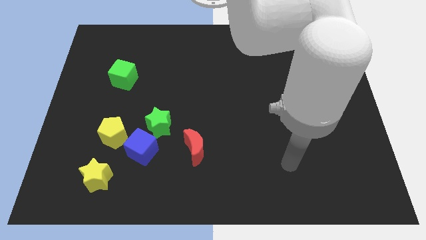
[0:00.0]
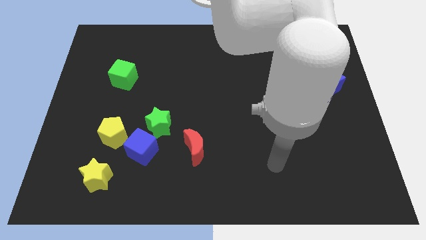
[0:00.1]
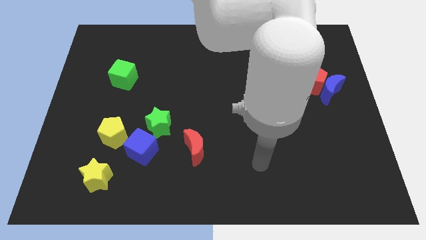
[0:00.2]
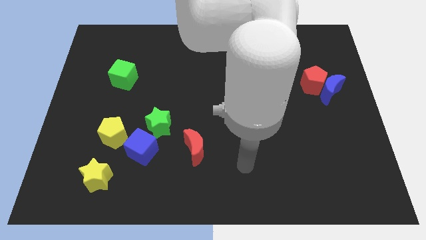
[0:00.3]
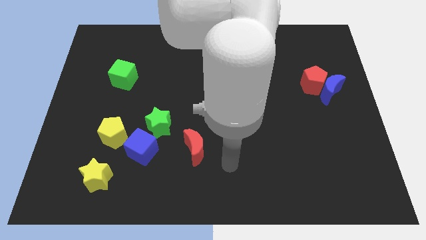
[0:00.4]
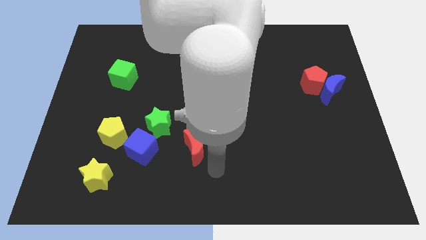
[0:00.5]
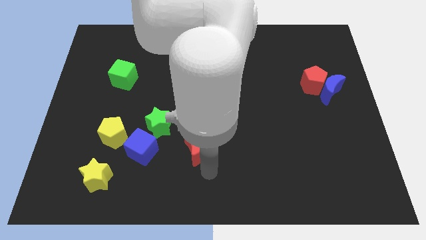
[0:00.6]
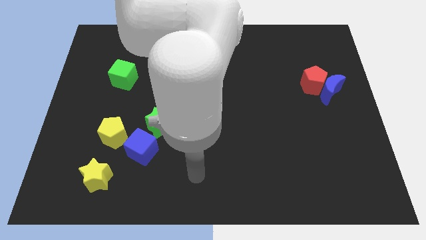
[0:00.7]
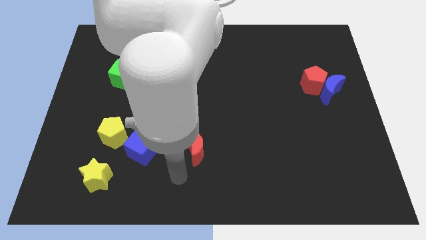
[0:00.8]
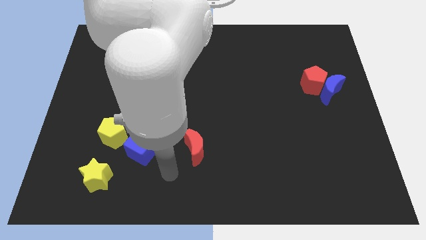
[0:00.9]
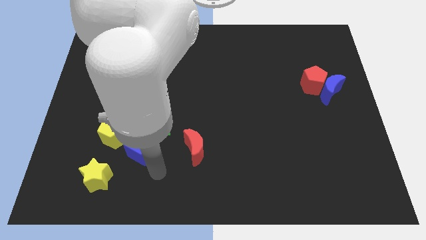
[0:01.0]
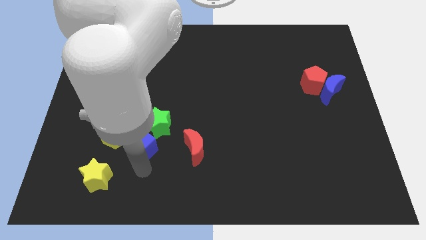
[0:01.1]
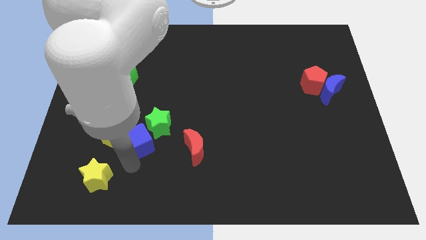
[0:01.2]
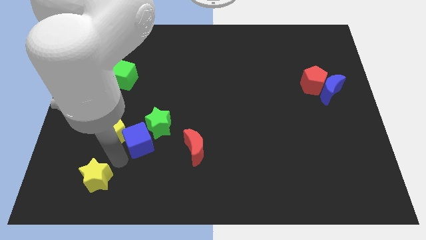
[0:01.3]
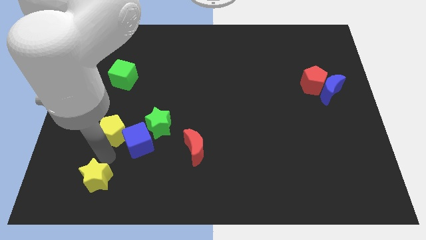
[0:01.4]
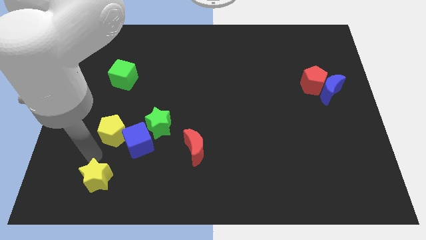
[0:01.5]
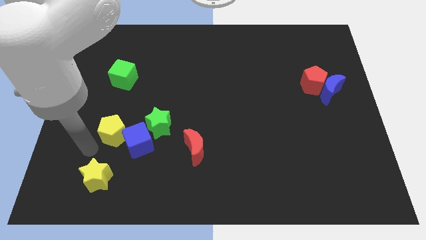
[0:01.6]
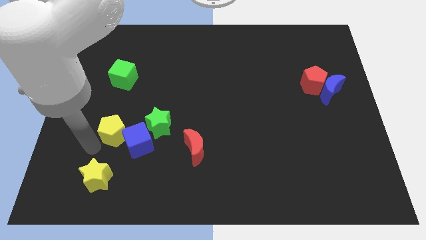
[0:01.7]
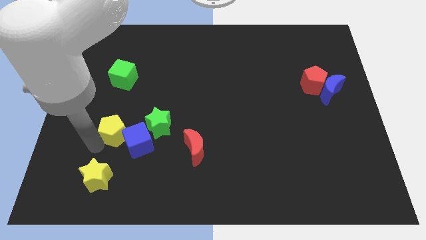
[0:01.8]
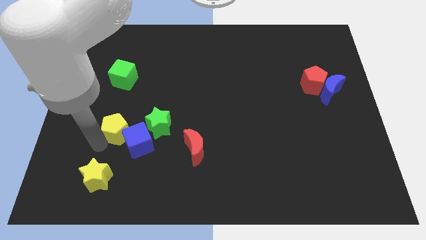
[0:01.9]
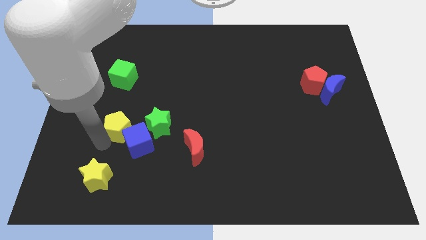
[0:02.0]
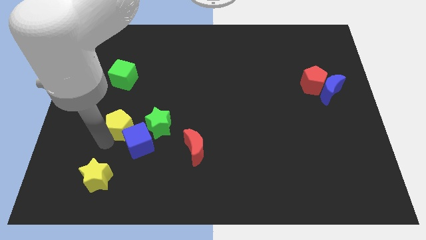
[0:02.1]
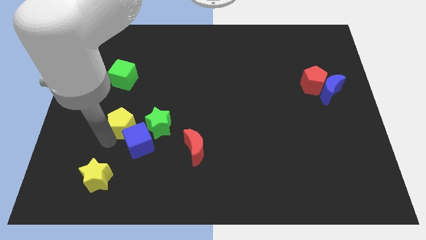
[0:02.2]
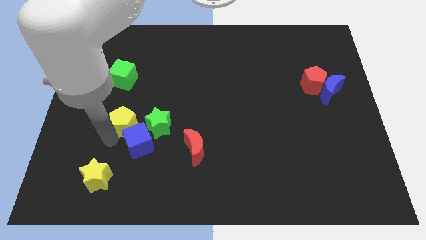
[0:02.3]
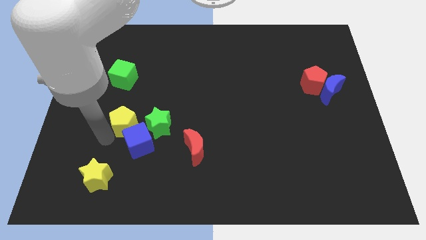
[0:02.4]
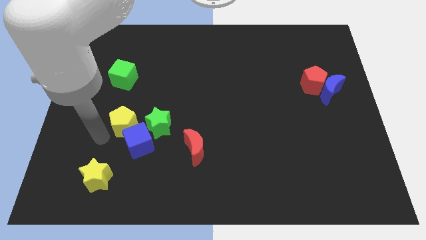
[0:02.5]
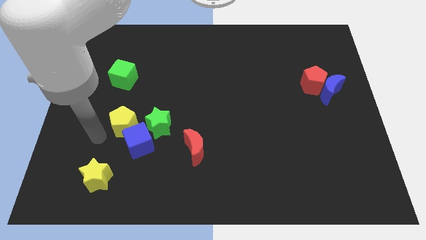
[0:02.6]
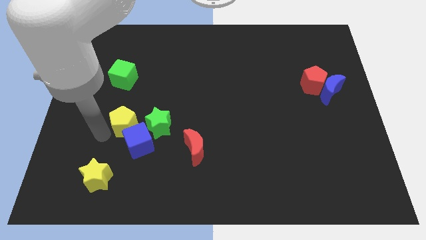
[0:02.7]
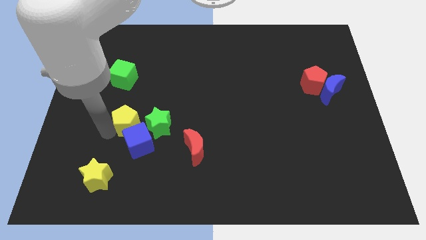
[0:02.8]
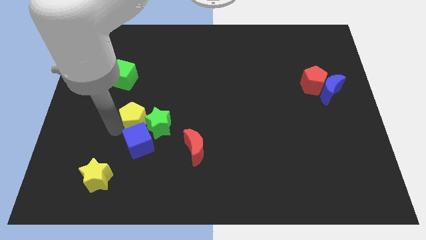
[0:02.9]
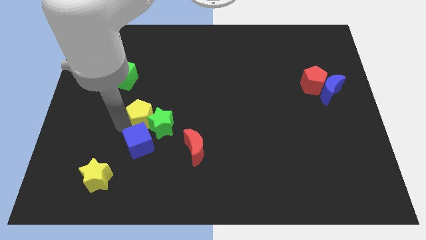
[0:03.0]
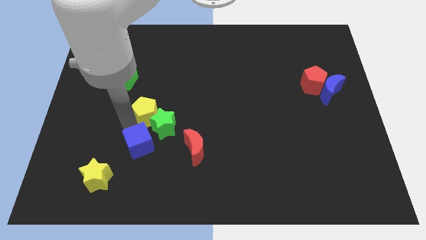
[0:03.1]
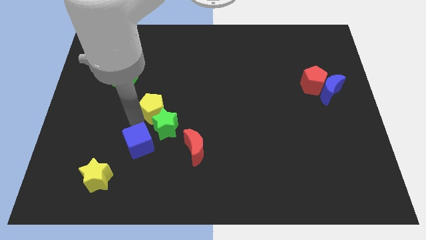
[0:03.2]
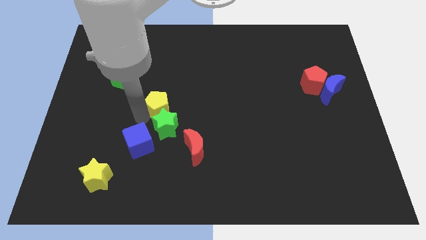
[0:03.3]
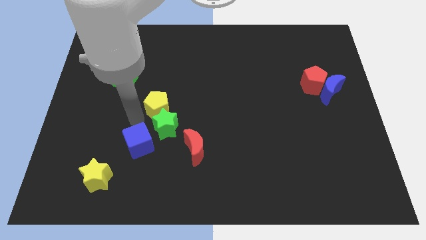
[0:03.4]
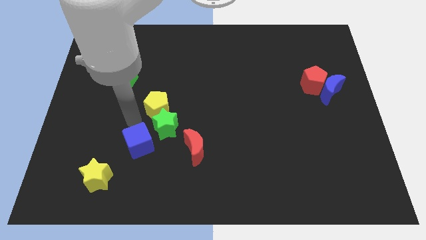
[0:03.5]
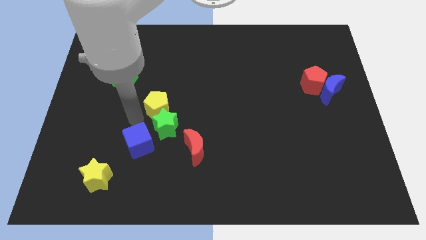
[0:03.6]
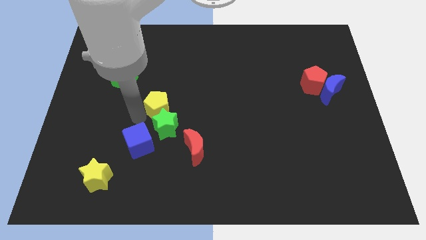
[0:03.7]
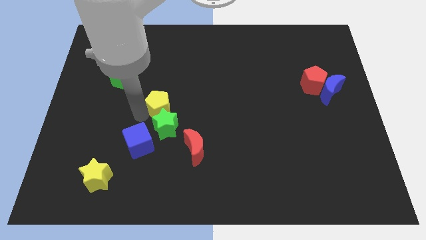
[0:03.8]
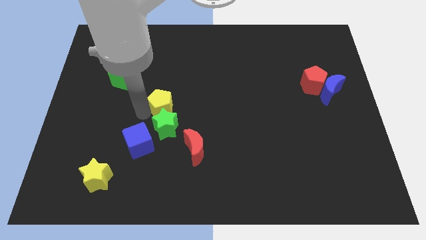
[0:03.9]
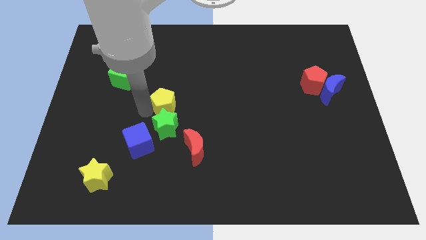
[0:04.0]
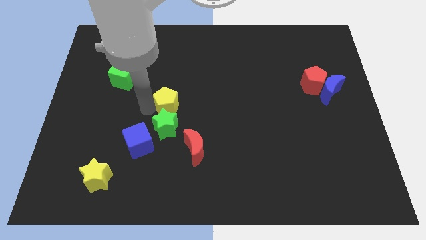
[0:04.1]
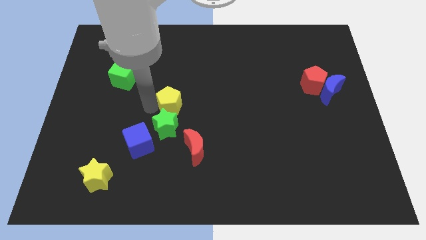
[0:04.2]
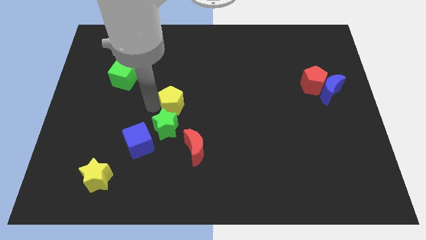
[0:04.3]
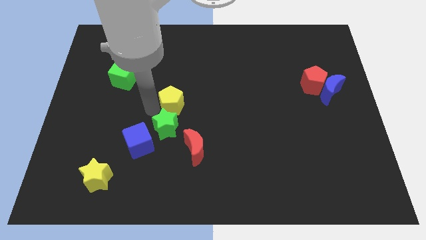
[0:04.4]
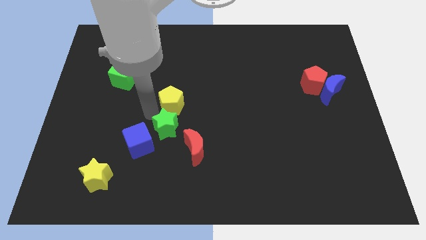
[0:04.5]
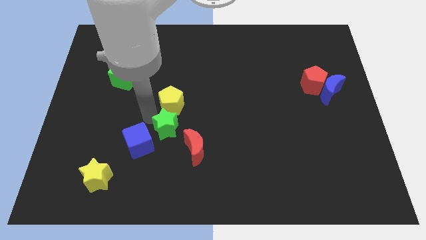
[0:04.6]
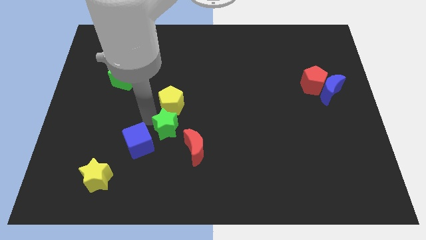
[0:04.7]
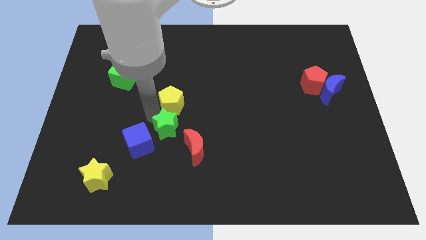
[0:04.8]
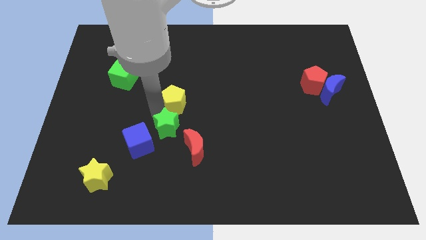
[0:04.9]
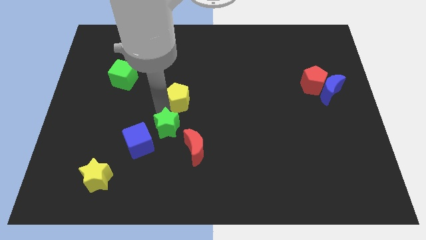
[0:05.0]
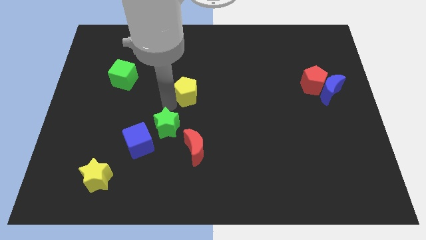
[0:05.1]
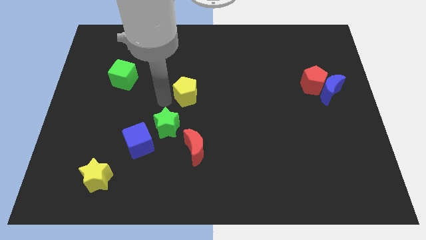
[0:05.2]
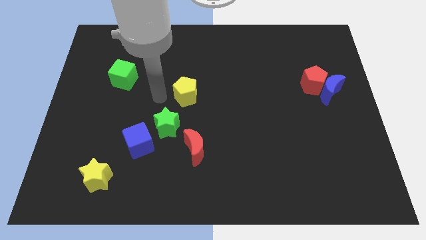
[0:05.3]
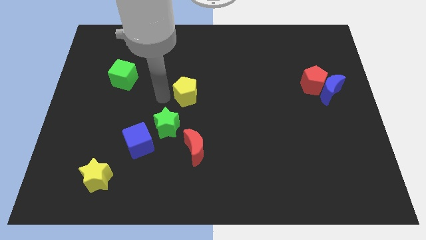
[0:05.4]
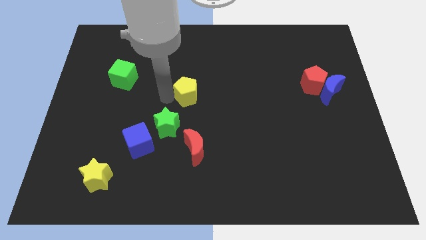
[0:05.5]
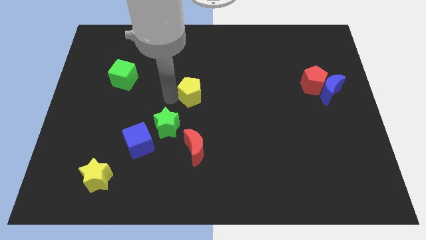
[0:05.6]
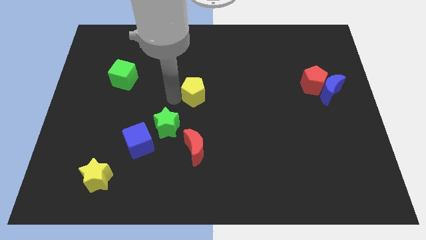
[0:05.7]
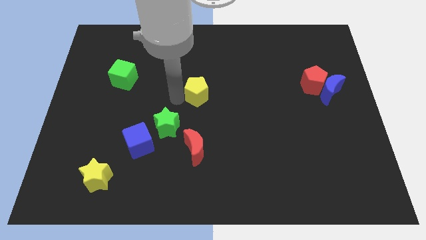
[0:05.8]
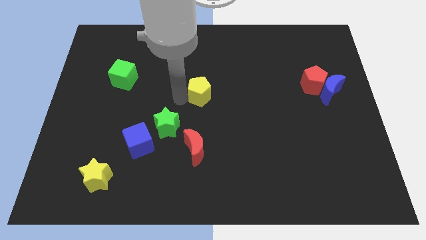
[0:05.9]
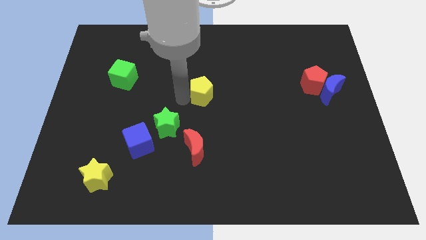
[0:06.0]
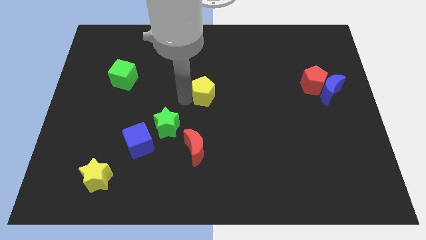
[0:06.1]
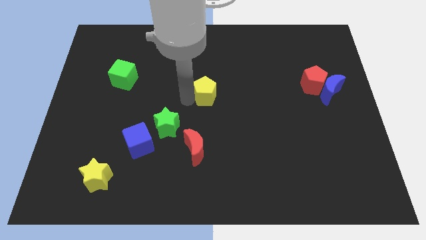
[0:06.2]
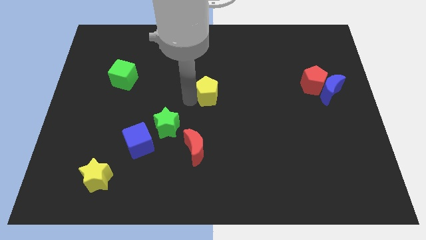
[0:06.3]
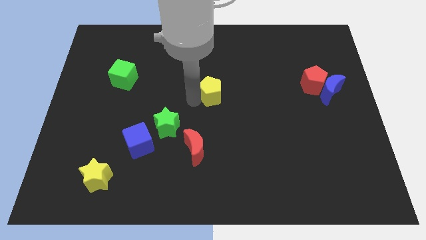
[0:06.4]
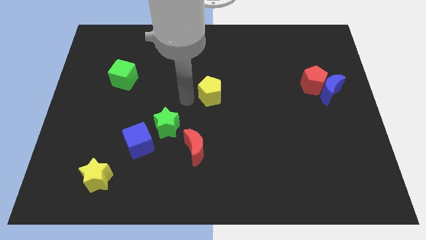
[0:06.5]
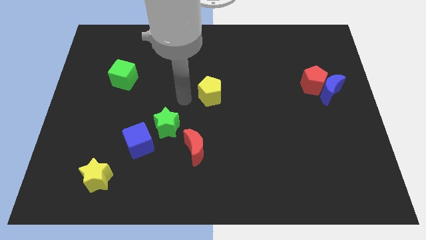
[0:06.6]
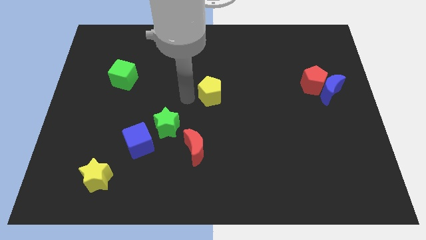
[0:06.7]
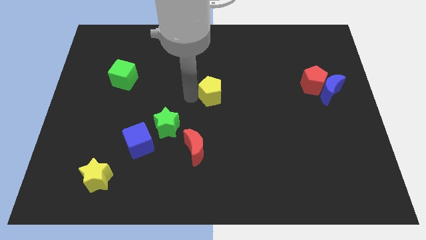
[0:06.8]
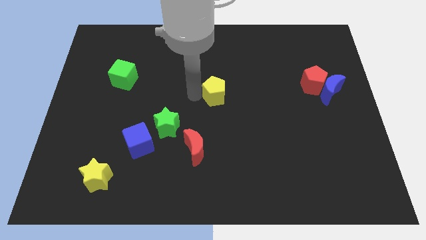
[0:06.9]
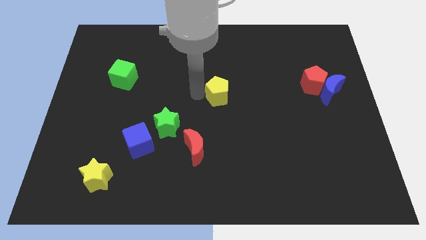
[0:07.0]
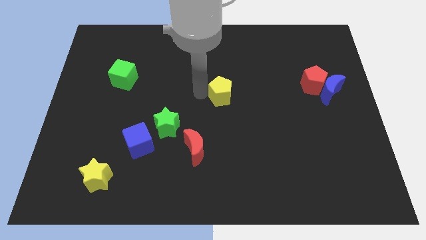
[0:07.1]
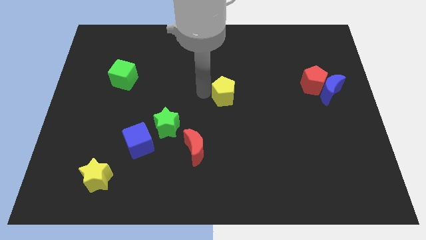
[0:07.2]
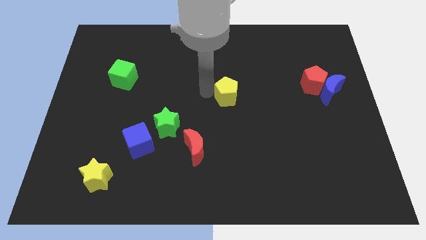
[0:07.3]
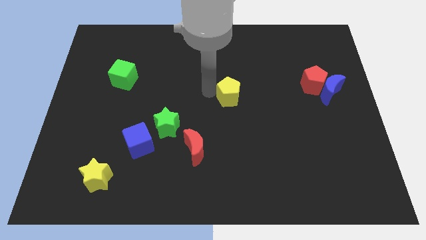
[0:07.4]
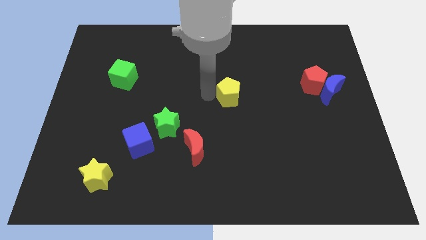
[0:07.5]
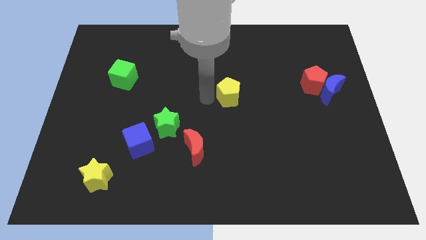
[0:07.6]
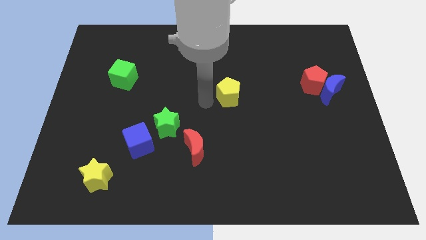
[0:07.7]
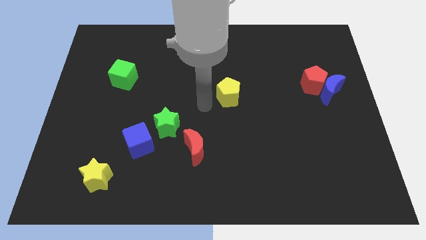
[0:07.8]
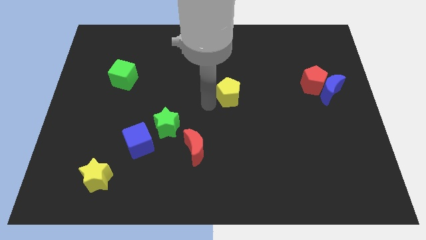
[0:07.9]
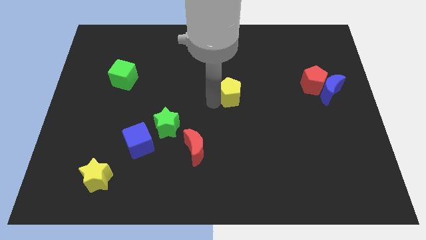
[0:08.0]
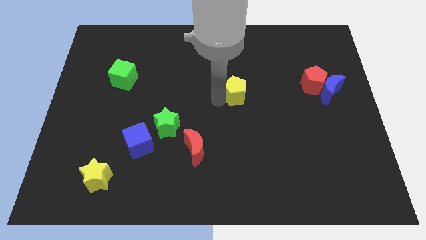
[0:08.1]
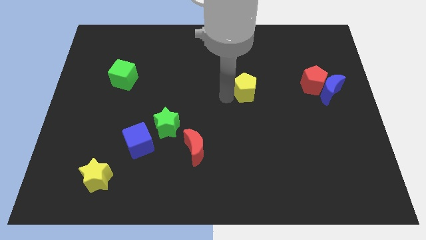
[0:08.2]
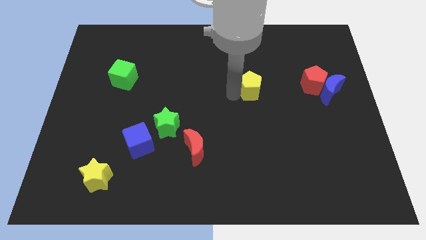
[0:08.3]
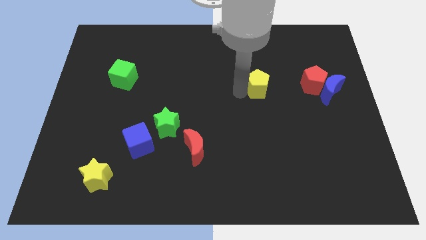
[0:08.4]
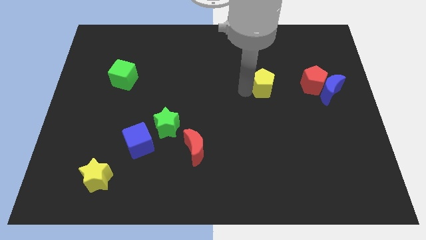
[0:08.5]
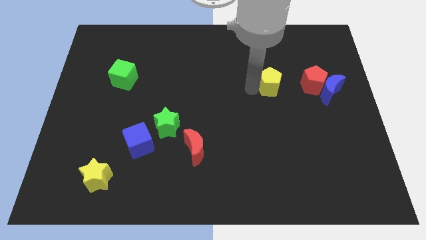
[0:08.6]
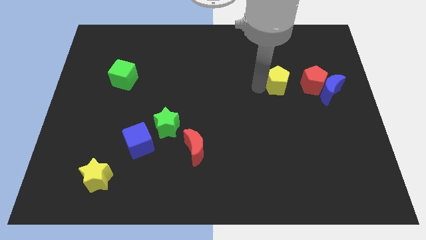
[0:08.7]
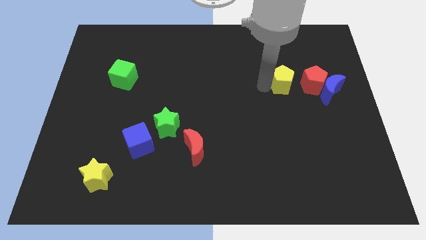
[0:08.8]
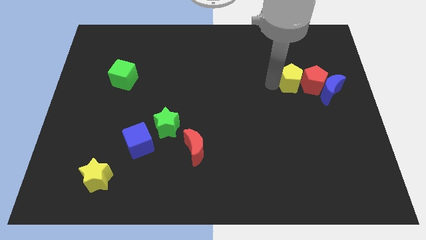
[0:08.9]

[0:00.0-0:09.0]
put the yellow pentagon close to the red pentagon
